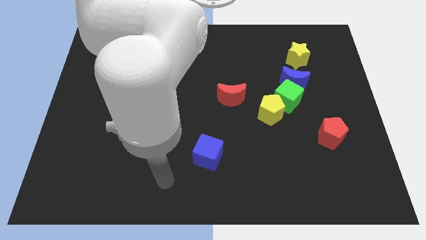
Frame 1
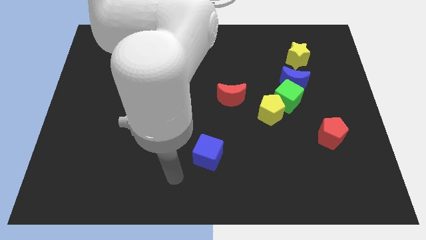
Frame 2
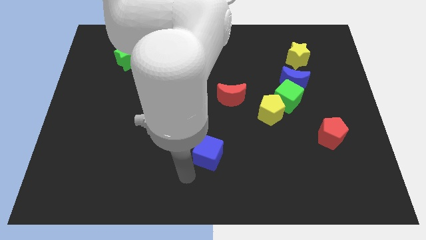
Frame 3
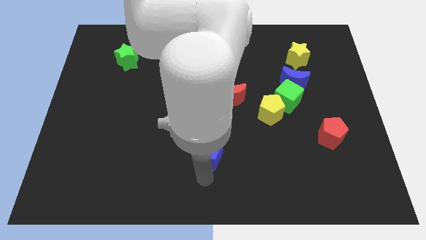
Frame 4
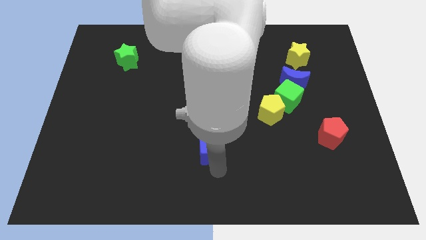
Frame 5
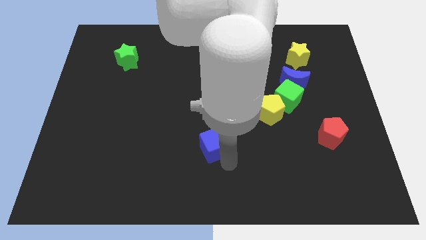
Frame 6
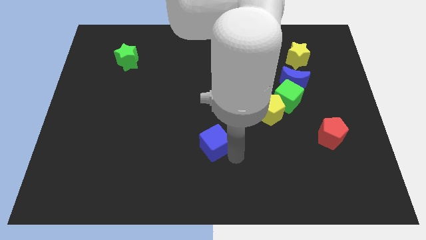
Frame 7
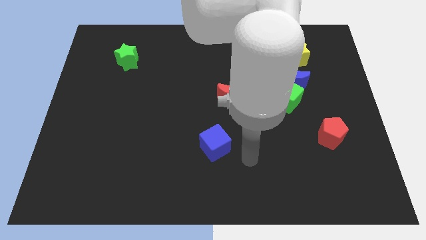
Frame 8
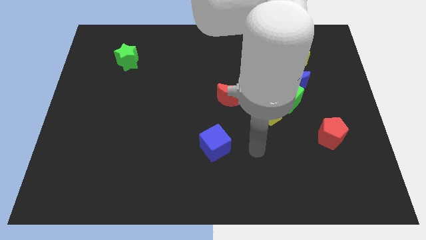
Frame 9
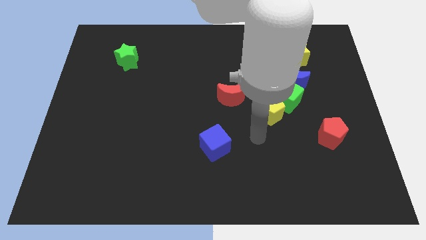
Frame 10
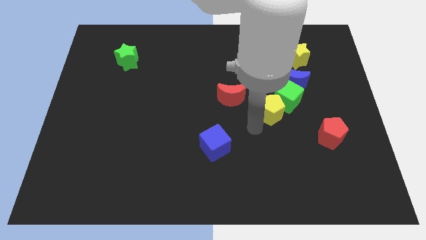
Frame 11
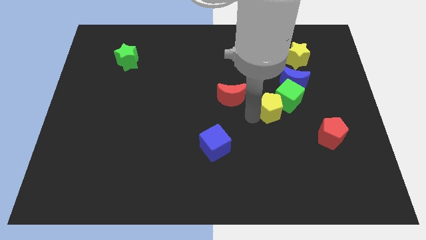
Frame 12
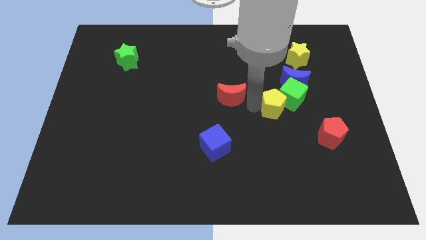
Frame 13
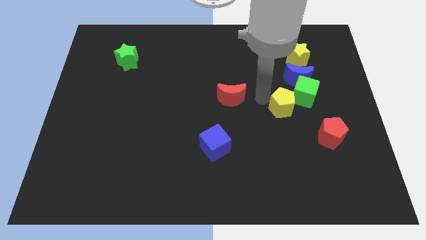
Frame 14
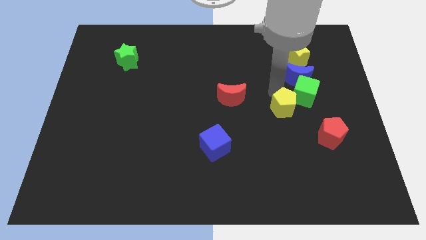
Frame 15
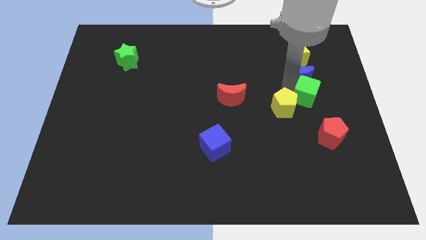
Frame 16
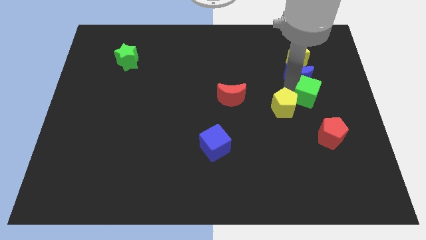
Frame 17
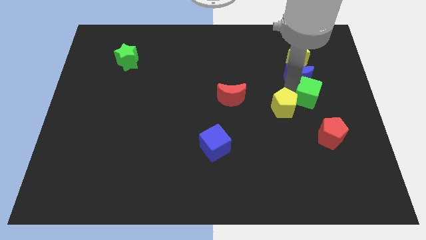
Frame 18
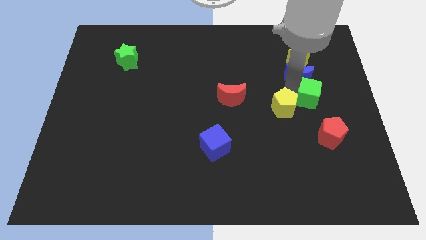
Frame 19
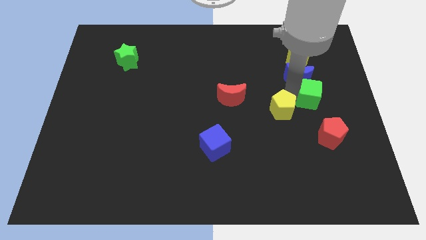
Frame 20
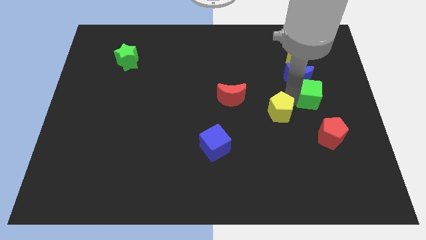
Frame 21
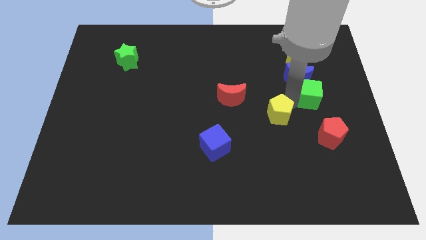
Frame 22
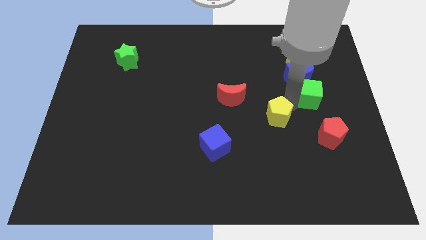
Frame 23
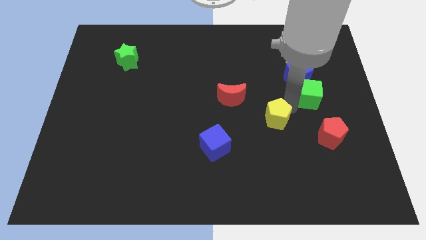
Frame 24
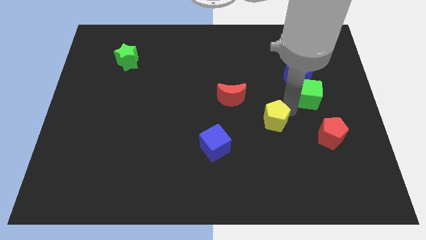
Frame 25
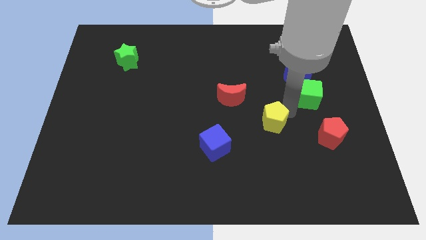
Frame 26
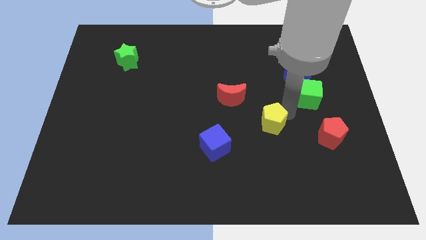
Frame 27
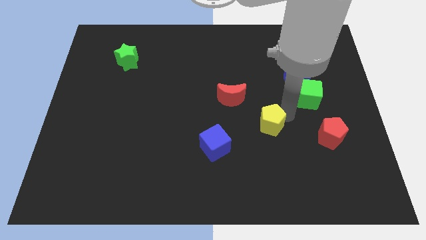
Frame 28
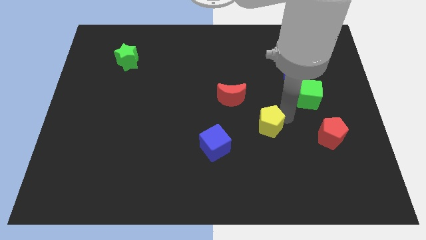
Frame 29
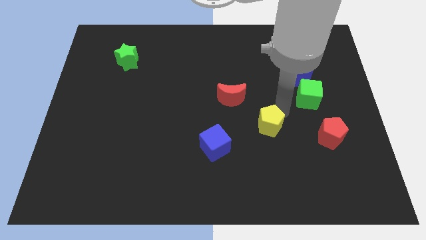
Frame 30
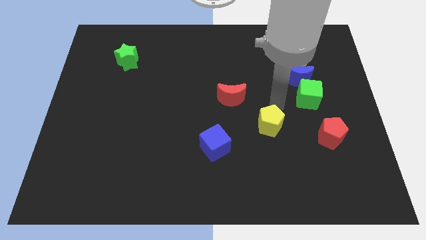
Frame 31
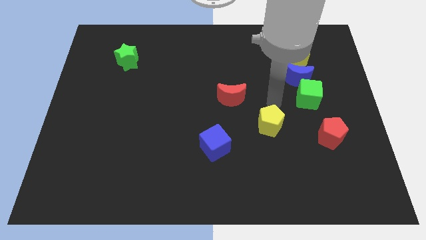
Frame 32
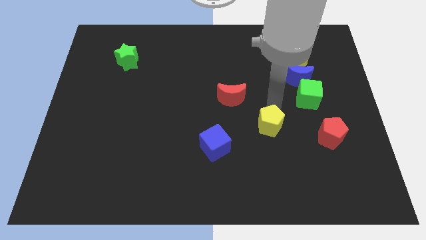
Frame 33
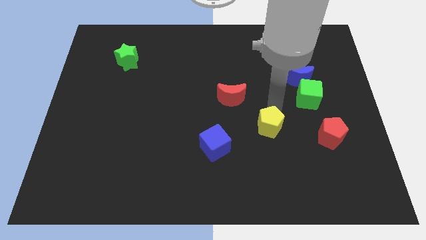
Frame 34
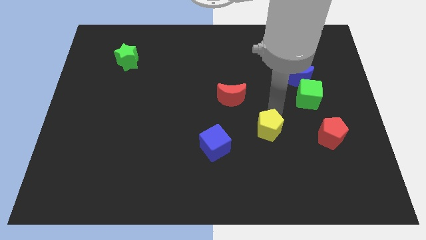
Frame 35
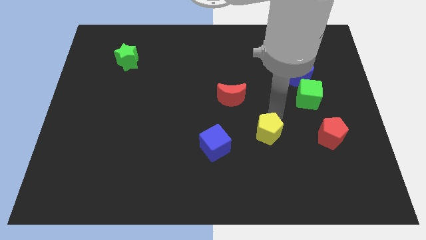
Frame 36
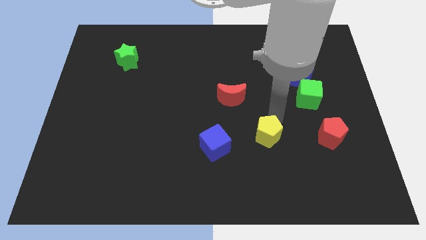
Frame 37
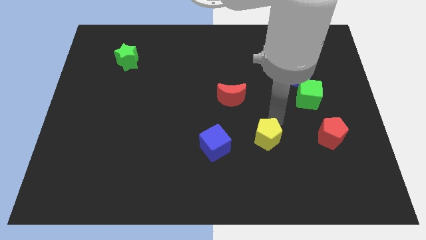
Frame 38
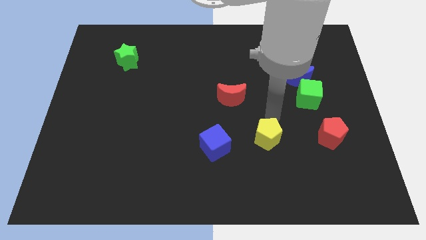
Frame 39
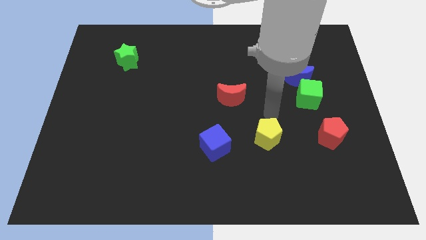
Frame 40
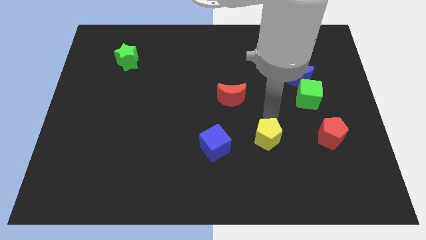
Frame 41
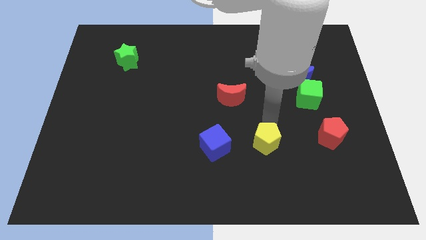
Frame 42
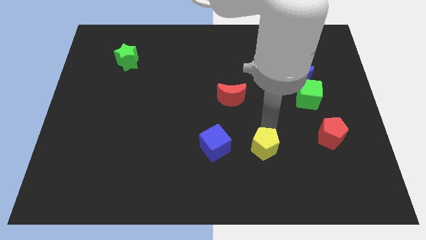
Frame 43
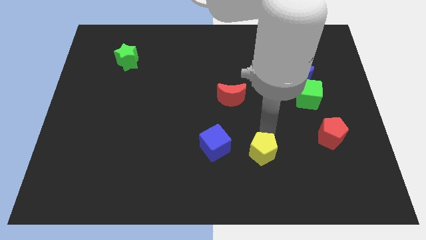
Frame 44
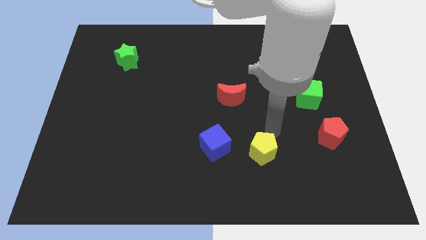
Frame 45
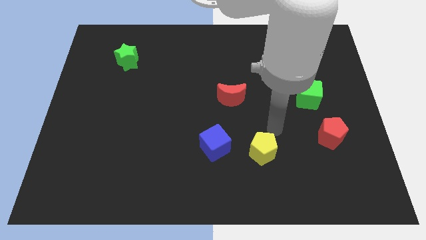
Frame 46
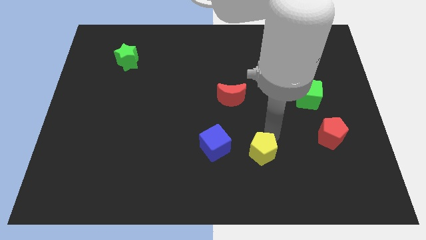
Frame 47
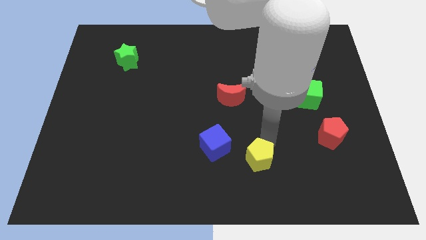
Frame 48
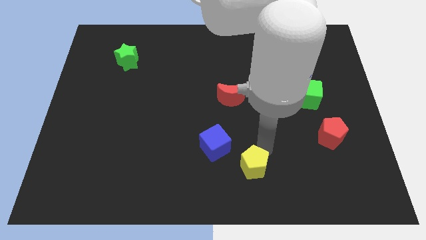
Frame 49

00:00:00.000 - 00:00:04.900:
slide the yellow pentagon to the bottom

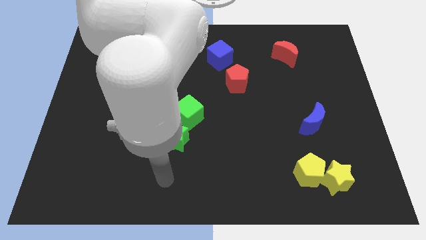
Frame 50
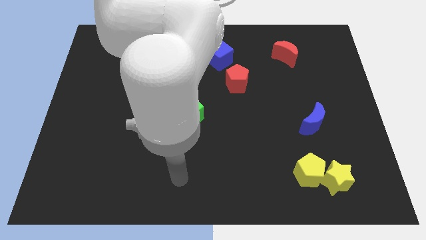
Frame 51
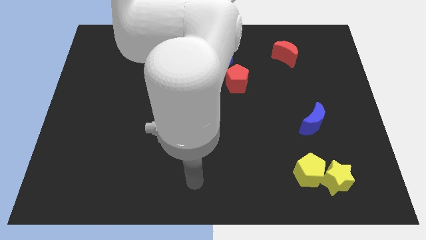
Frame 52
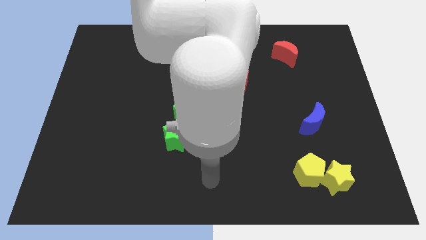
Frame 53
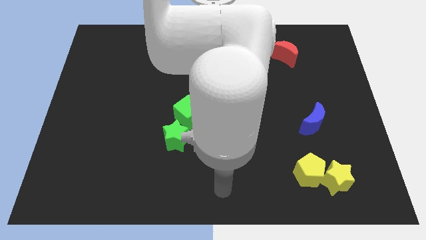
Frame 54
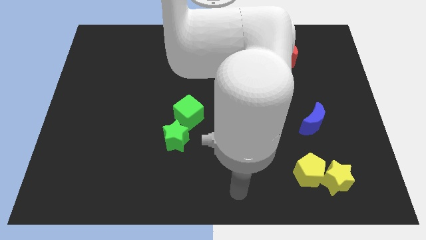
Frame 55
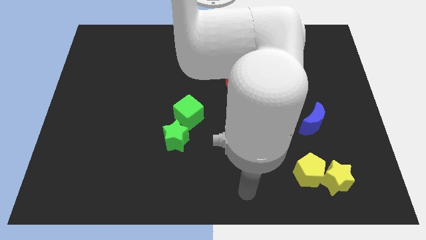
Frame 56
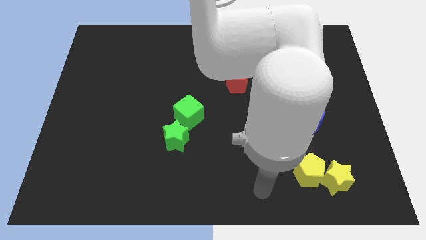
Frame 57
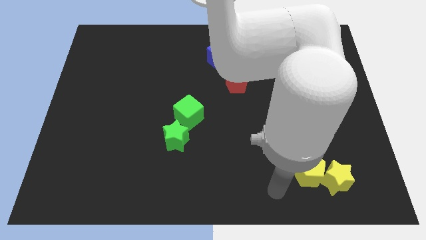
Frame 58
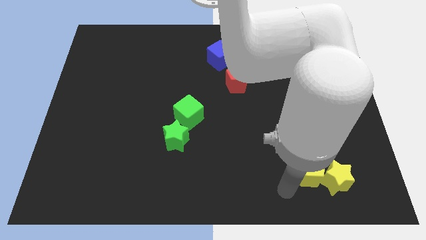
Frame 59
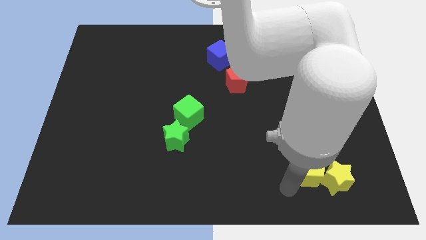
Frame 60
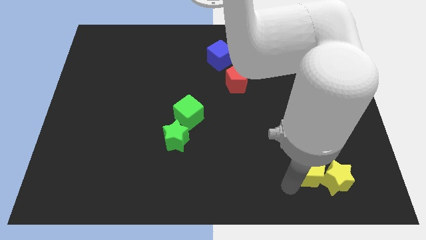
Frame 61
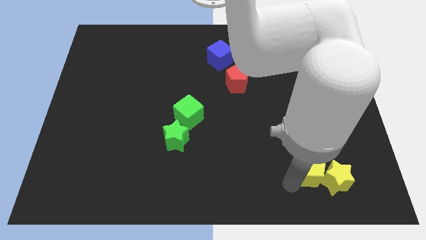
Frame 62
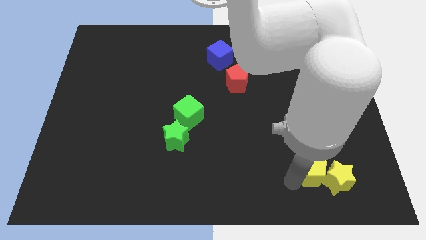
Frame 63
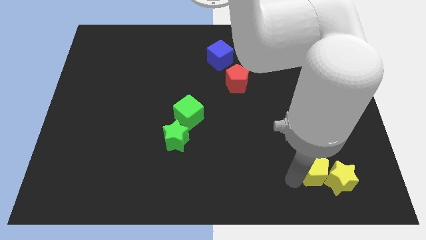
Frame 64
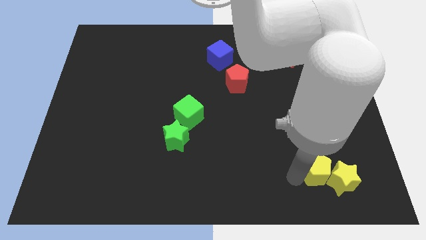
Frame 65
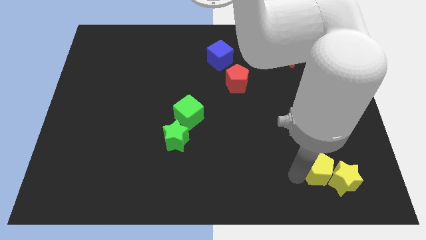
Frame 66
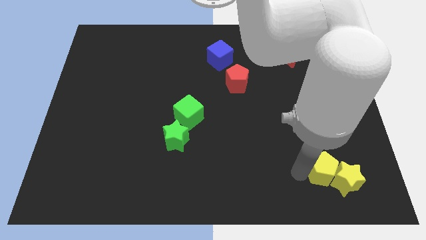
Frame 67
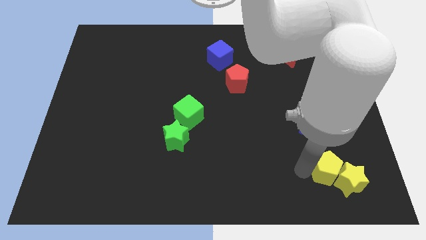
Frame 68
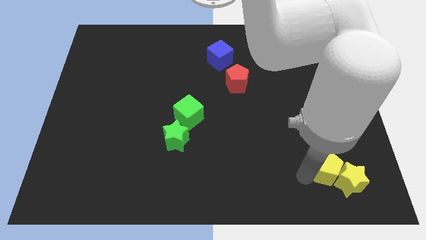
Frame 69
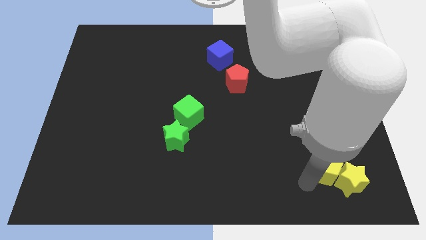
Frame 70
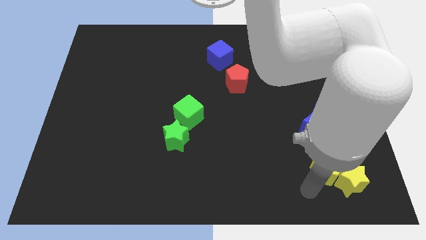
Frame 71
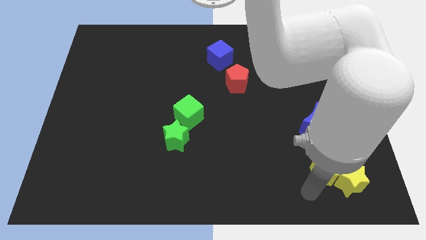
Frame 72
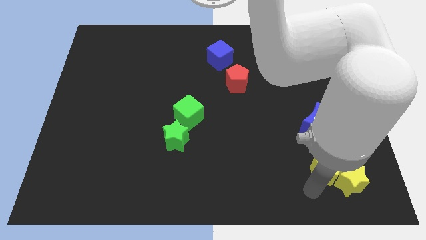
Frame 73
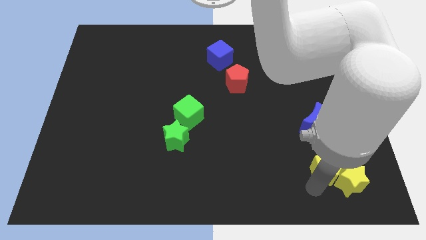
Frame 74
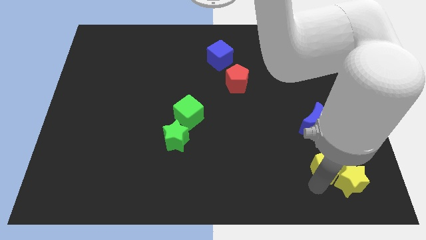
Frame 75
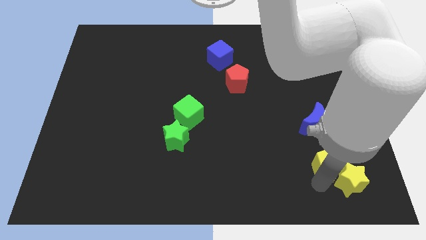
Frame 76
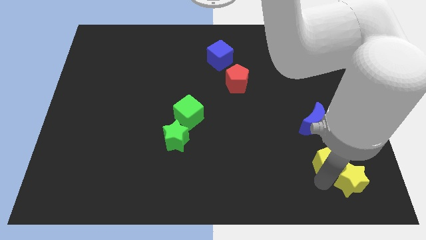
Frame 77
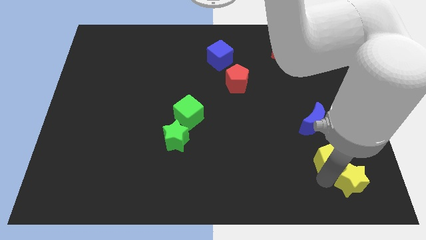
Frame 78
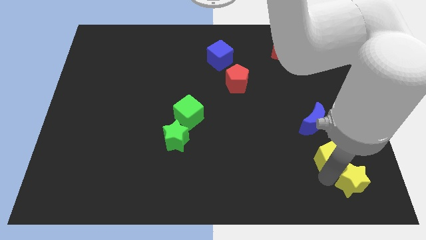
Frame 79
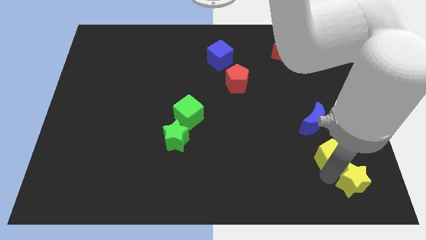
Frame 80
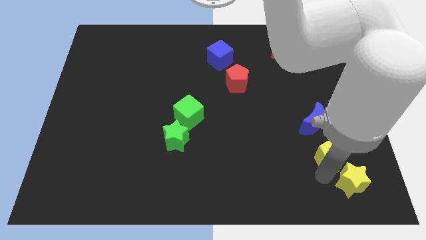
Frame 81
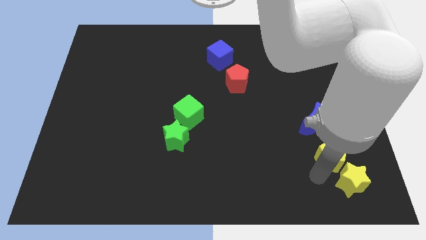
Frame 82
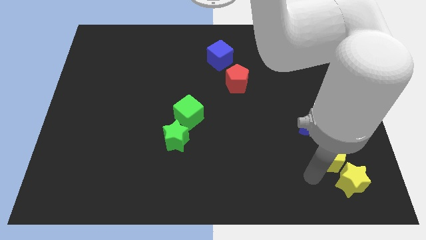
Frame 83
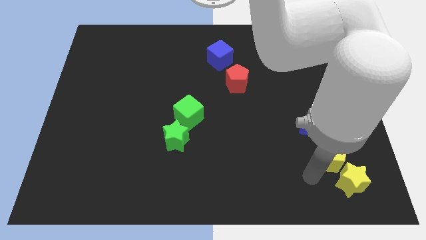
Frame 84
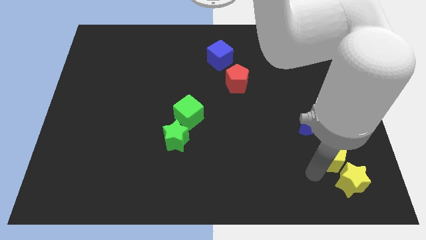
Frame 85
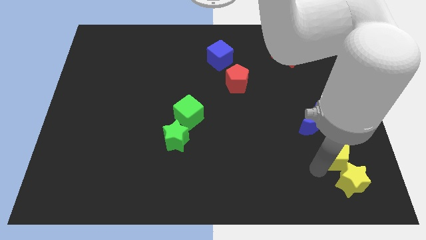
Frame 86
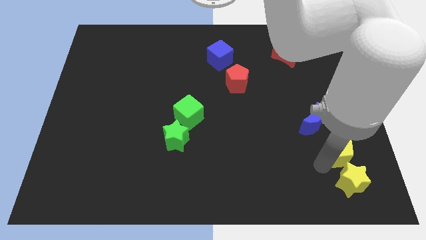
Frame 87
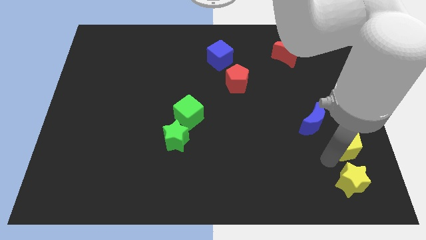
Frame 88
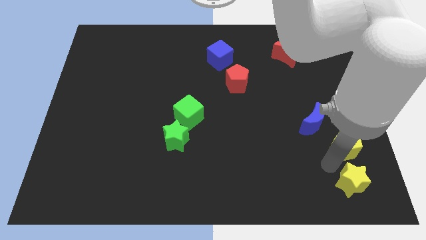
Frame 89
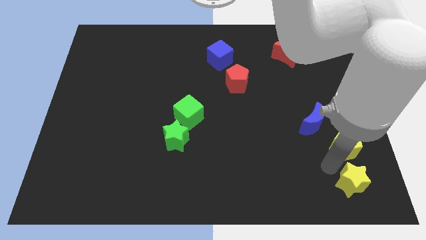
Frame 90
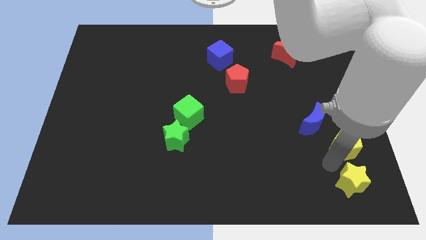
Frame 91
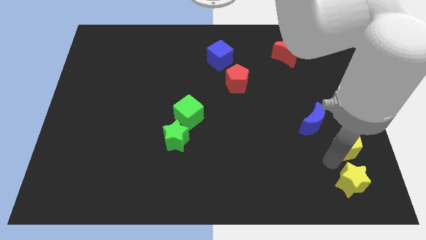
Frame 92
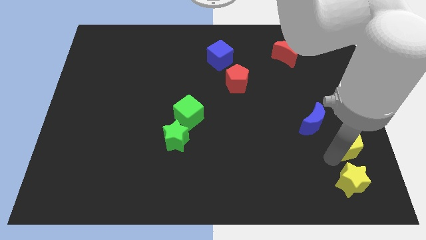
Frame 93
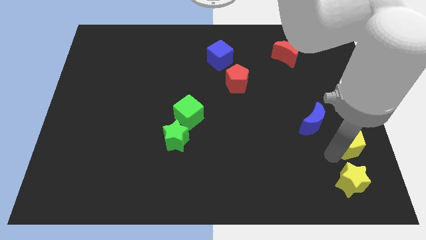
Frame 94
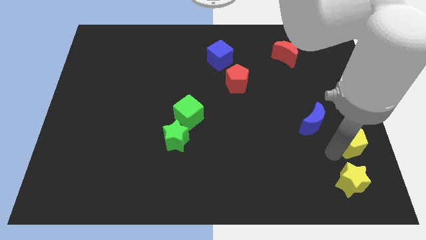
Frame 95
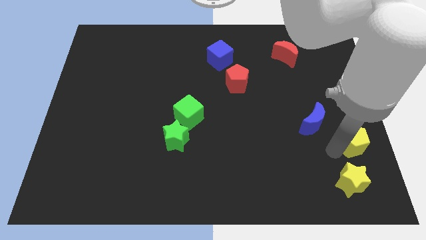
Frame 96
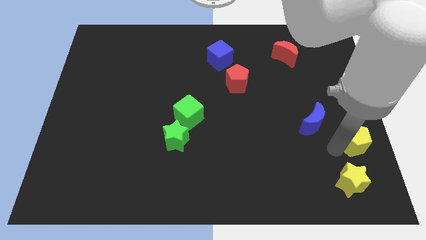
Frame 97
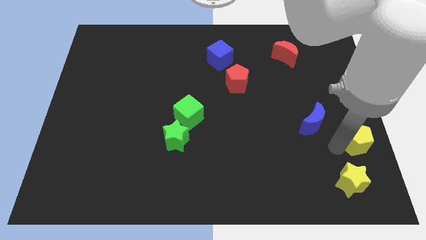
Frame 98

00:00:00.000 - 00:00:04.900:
slide the yellow pentagon to the right side of the board
